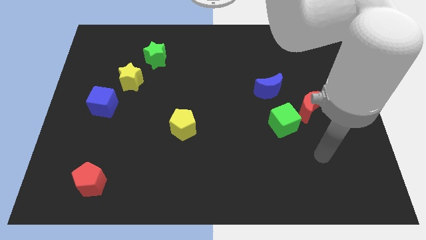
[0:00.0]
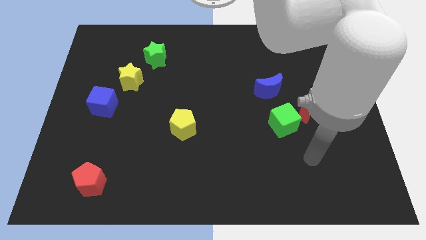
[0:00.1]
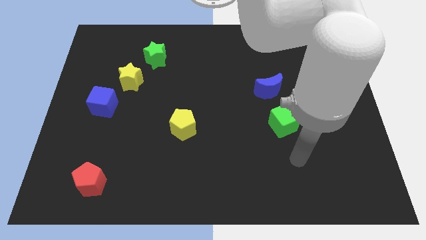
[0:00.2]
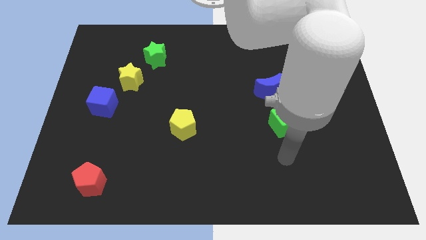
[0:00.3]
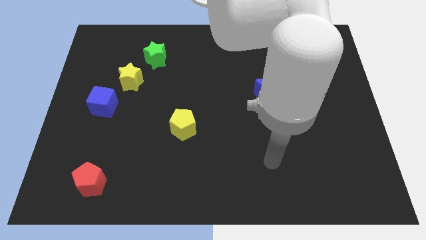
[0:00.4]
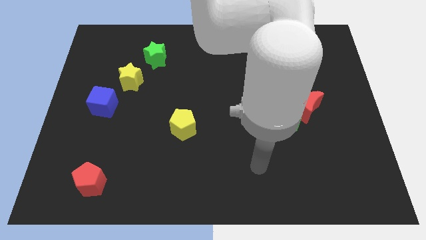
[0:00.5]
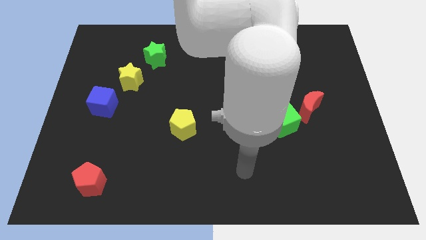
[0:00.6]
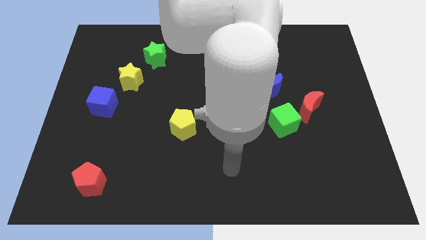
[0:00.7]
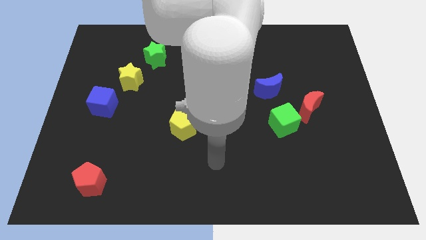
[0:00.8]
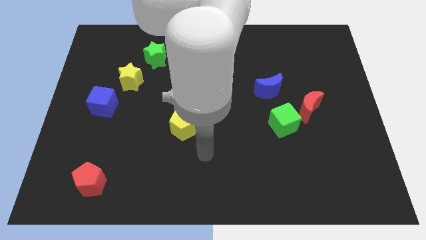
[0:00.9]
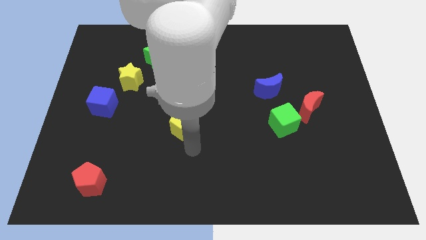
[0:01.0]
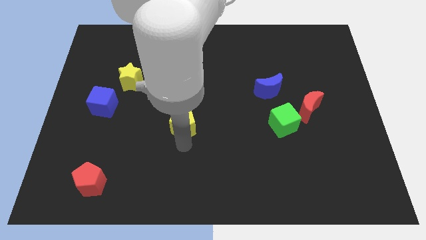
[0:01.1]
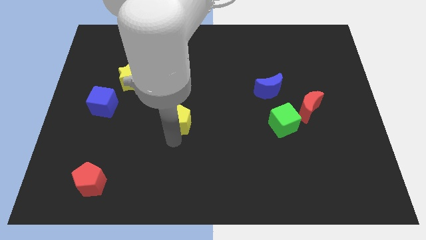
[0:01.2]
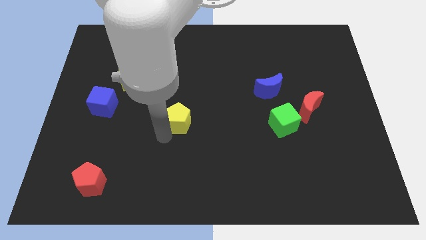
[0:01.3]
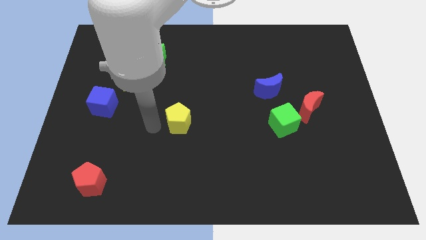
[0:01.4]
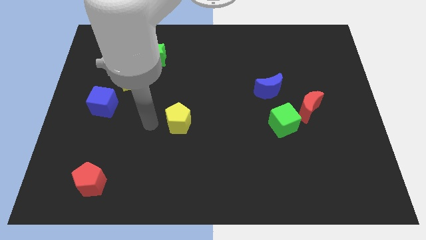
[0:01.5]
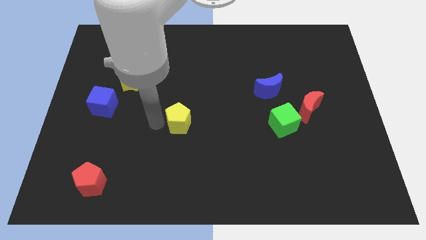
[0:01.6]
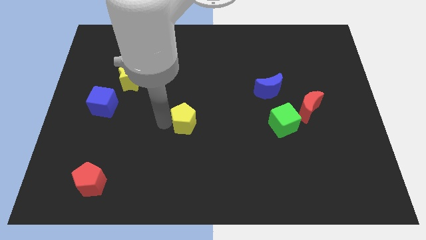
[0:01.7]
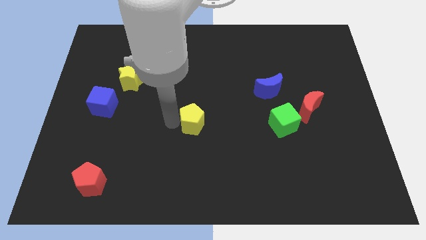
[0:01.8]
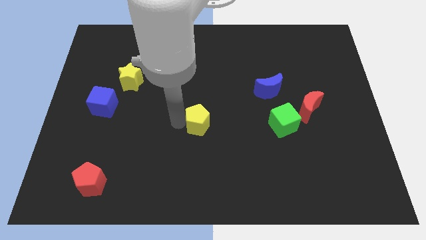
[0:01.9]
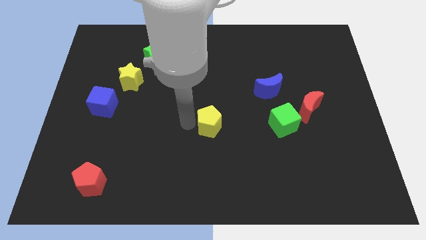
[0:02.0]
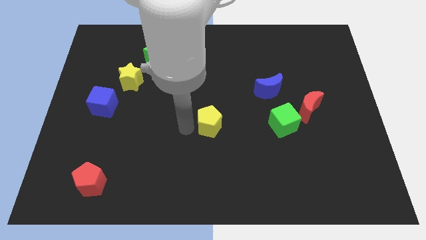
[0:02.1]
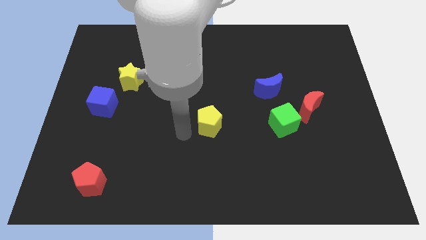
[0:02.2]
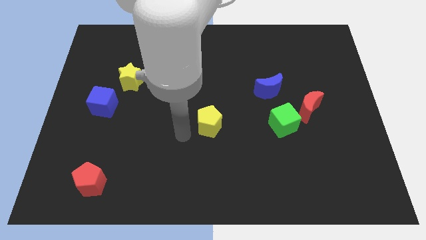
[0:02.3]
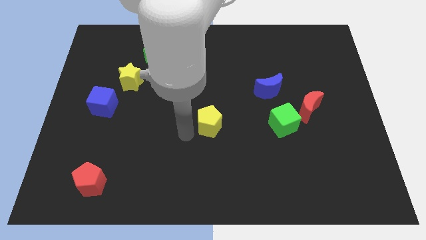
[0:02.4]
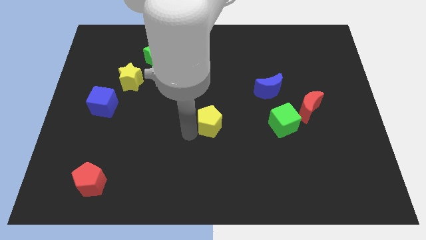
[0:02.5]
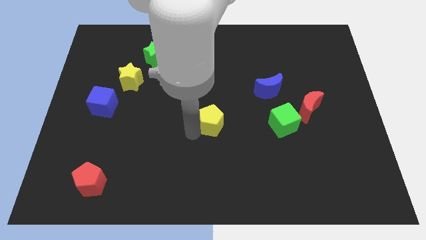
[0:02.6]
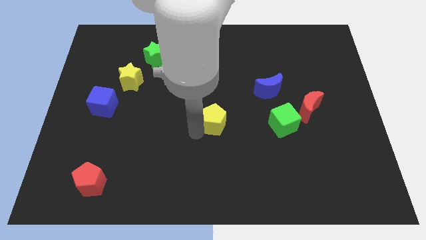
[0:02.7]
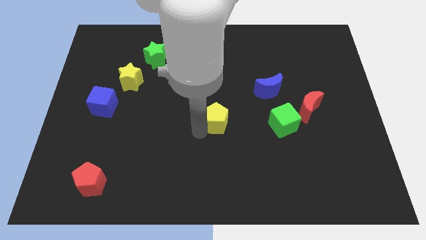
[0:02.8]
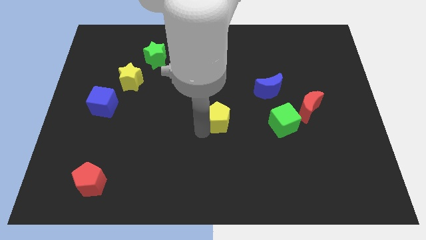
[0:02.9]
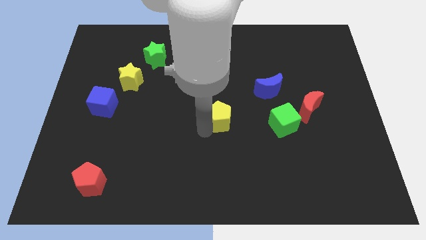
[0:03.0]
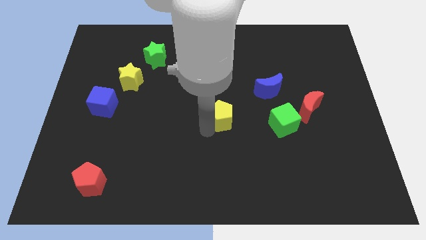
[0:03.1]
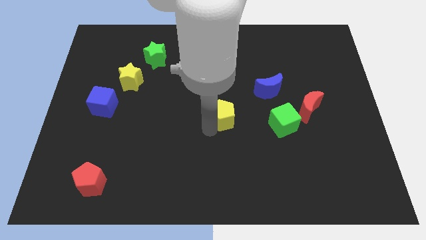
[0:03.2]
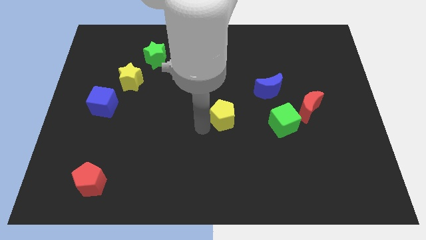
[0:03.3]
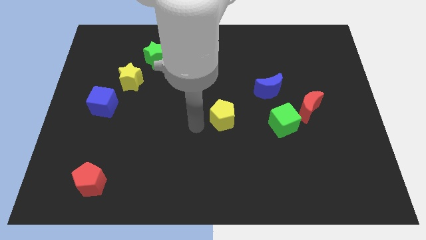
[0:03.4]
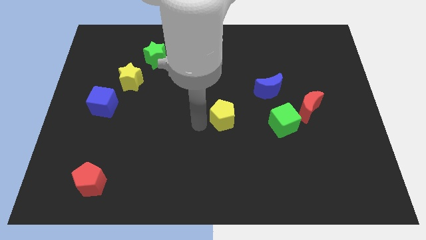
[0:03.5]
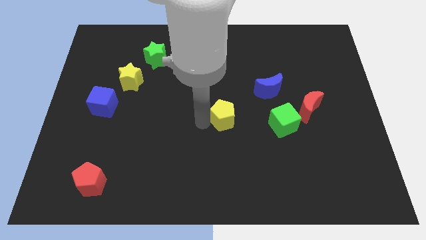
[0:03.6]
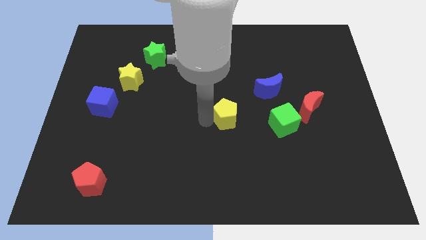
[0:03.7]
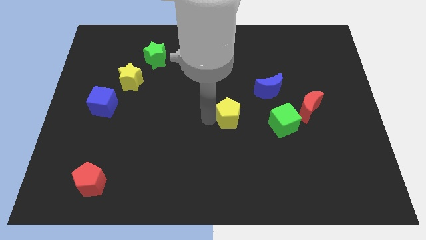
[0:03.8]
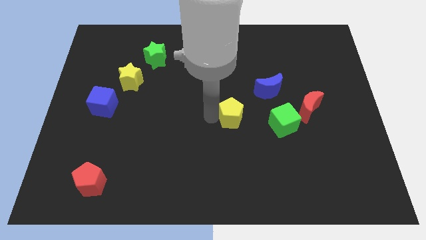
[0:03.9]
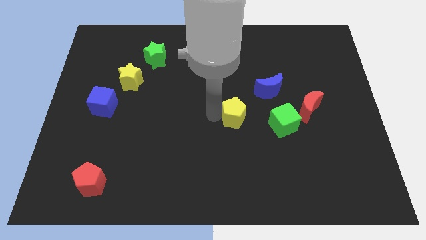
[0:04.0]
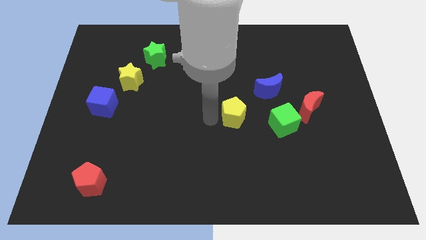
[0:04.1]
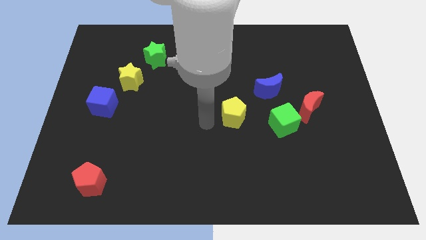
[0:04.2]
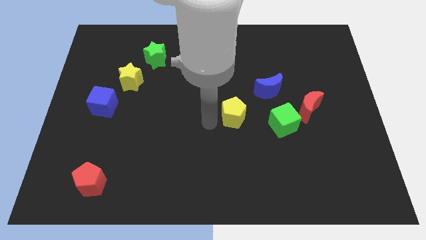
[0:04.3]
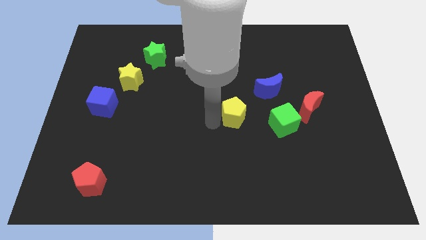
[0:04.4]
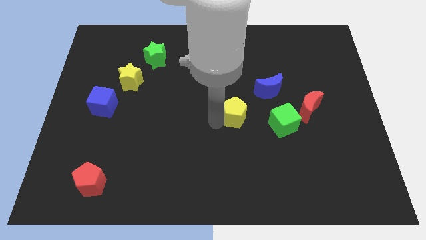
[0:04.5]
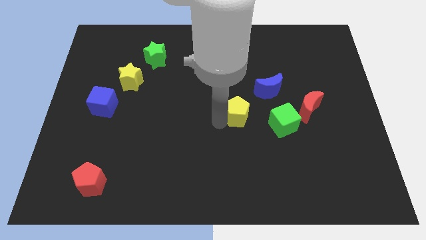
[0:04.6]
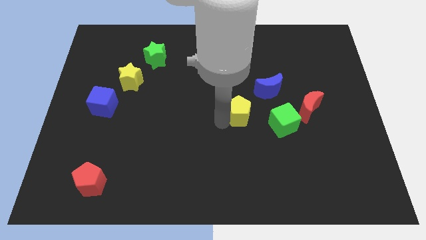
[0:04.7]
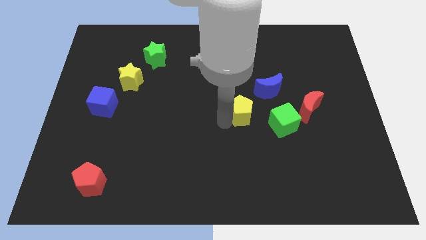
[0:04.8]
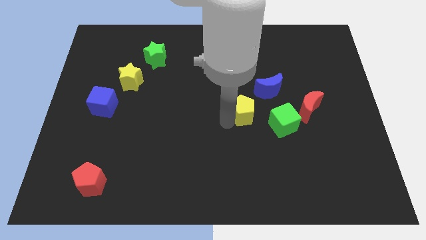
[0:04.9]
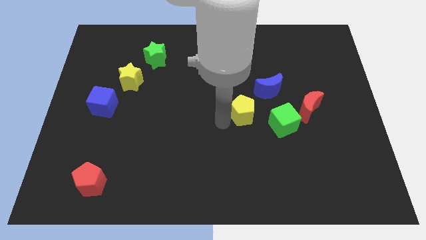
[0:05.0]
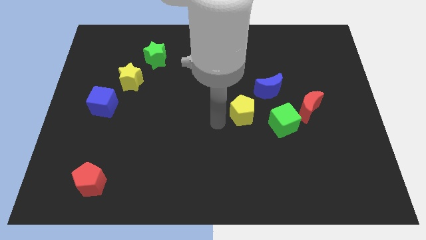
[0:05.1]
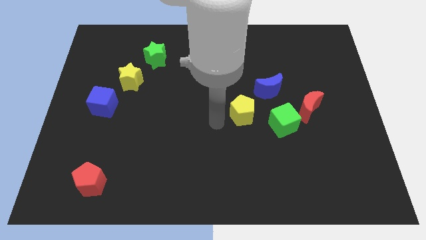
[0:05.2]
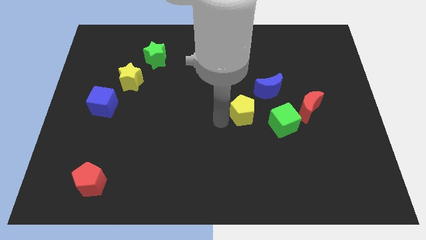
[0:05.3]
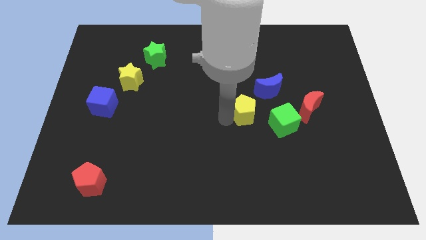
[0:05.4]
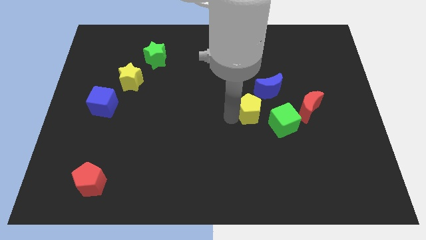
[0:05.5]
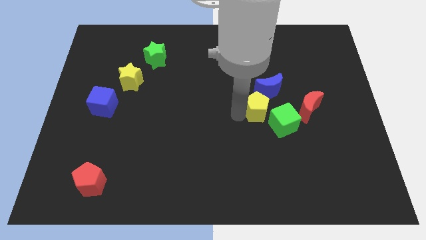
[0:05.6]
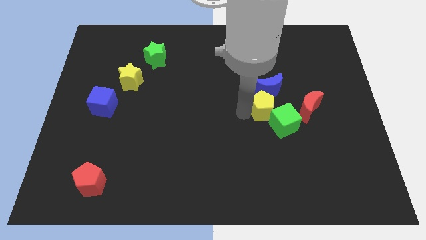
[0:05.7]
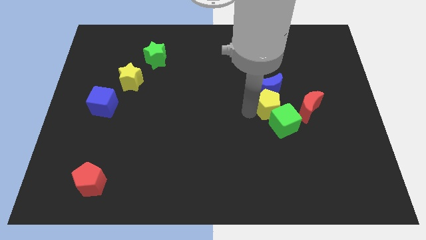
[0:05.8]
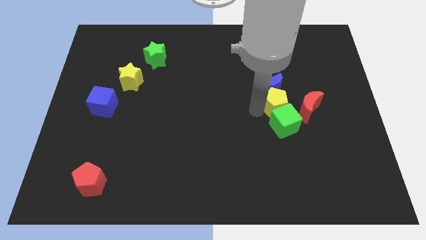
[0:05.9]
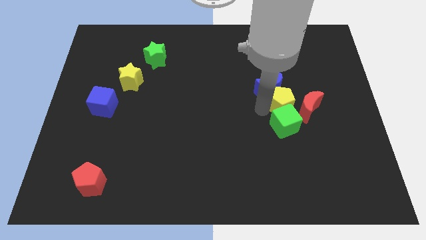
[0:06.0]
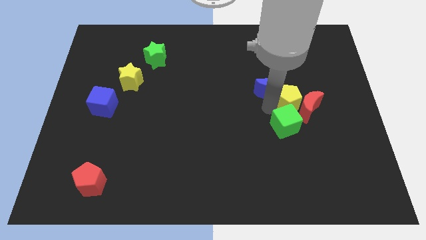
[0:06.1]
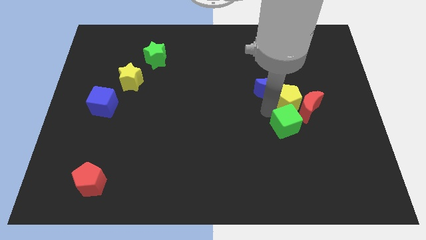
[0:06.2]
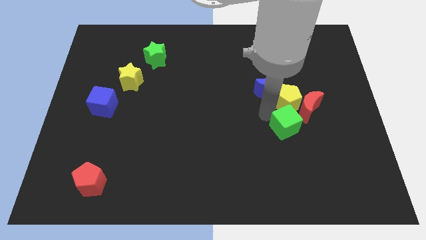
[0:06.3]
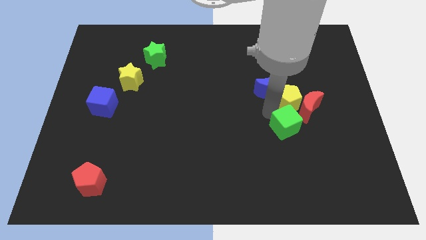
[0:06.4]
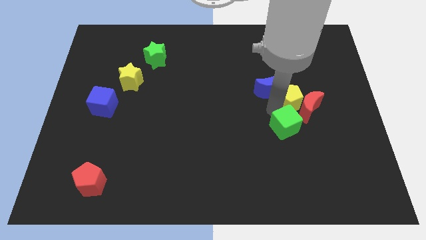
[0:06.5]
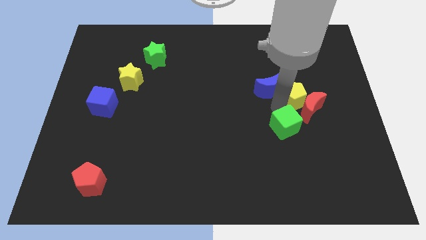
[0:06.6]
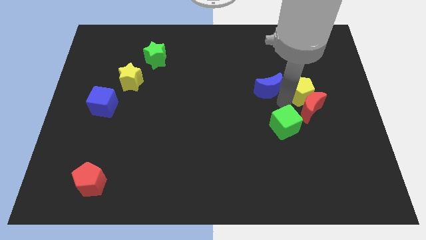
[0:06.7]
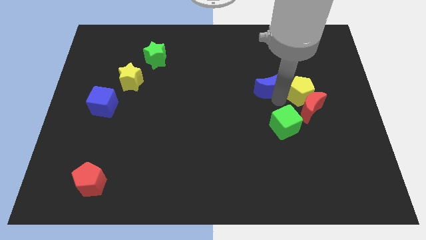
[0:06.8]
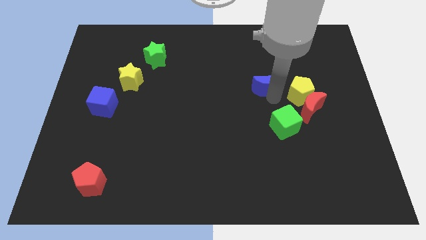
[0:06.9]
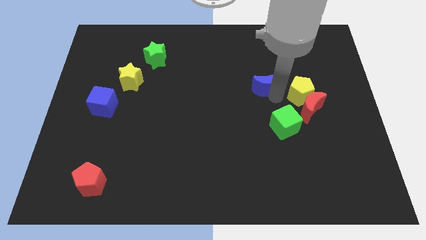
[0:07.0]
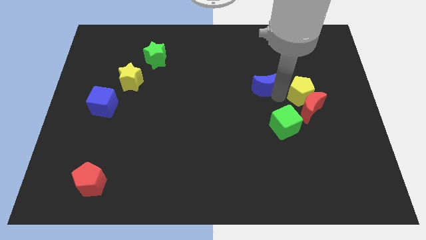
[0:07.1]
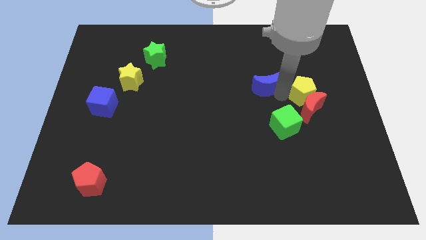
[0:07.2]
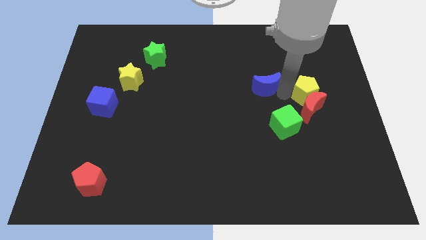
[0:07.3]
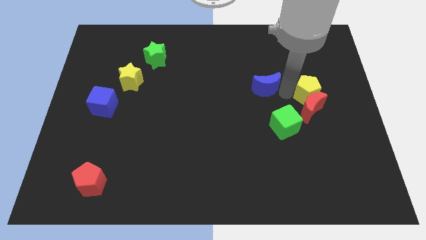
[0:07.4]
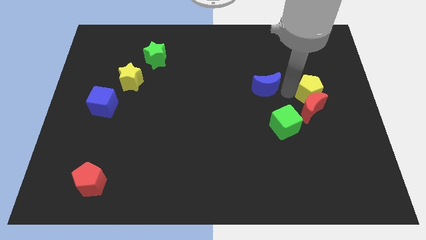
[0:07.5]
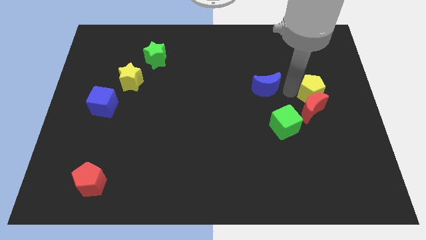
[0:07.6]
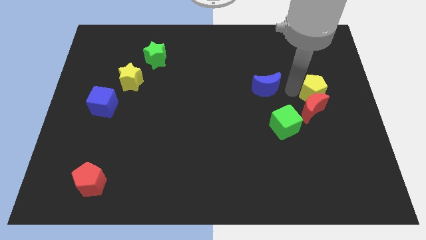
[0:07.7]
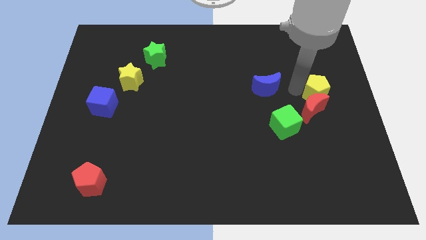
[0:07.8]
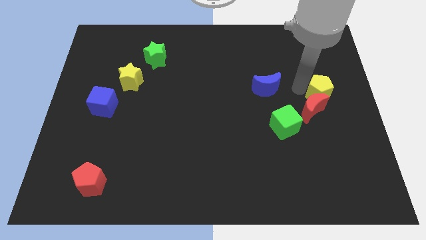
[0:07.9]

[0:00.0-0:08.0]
put the yellow pentagon to the right side
